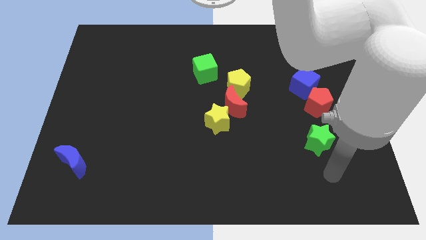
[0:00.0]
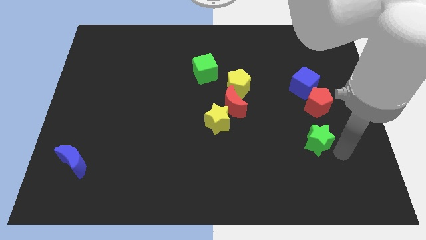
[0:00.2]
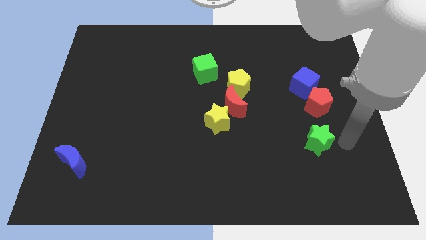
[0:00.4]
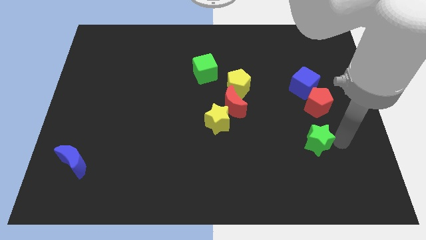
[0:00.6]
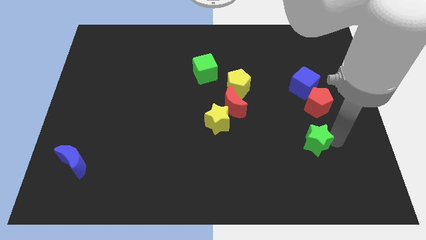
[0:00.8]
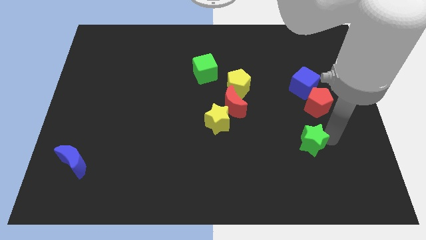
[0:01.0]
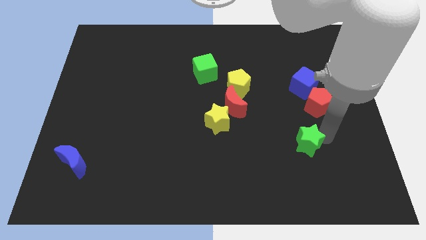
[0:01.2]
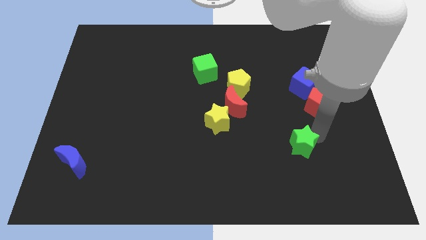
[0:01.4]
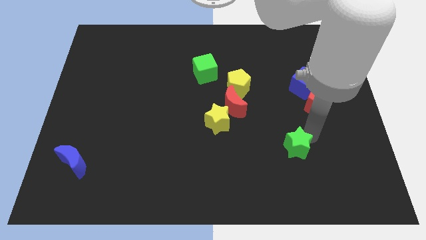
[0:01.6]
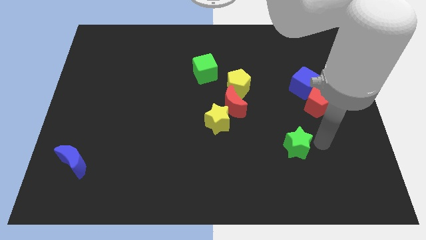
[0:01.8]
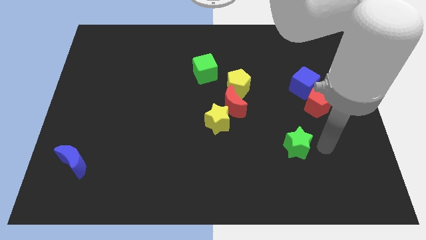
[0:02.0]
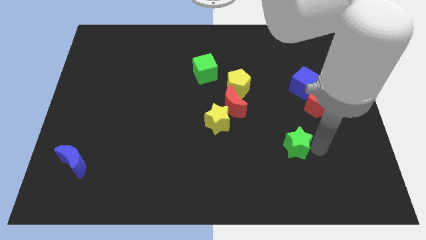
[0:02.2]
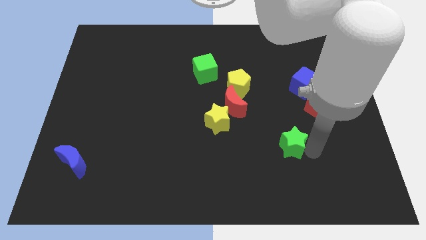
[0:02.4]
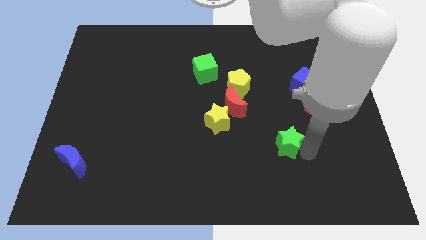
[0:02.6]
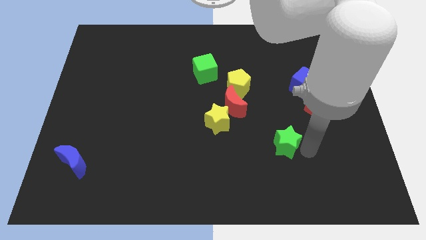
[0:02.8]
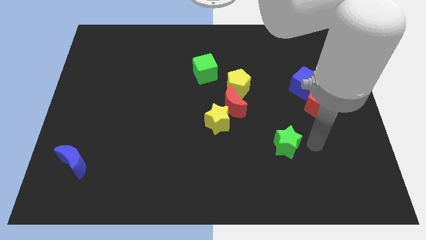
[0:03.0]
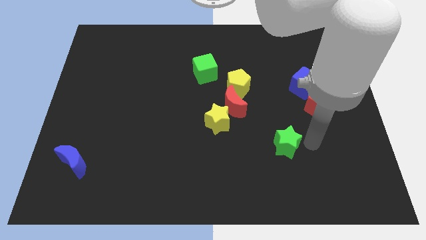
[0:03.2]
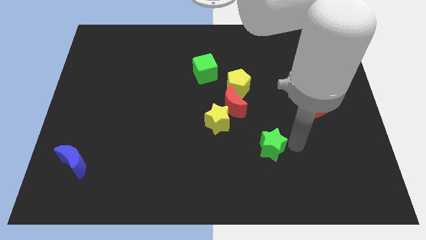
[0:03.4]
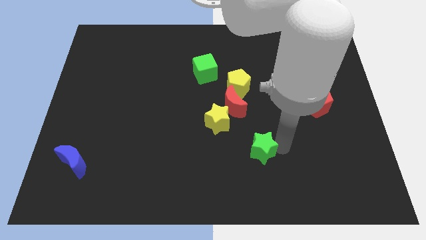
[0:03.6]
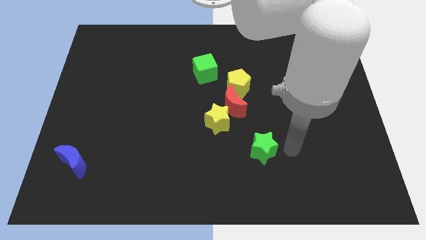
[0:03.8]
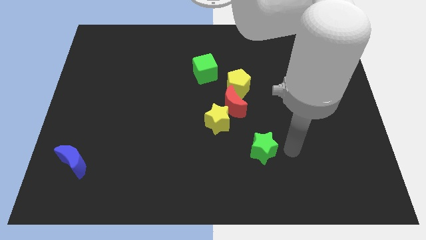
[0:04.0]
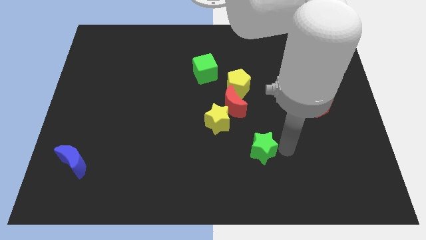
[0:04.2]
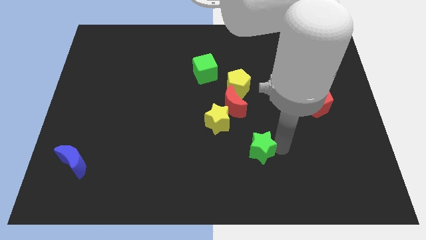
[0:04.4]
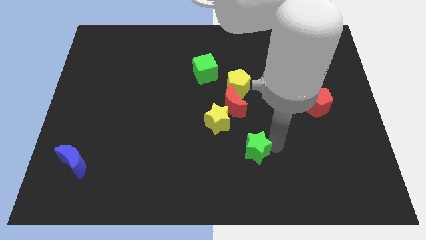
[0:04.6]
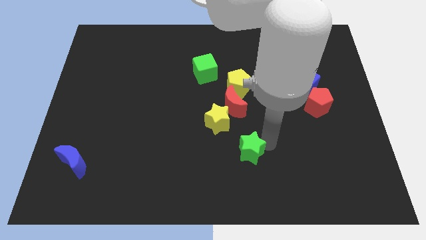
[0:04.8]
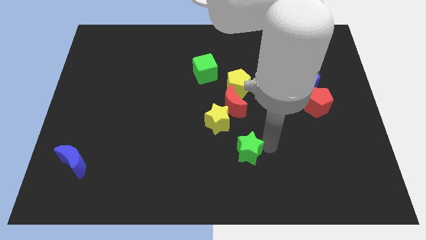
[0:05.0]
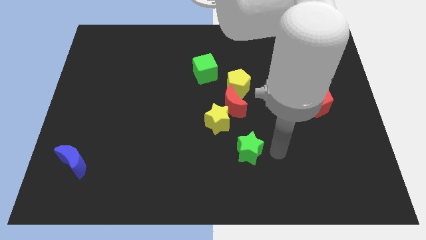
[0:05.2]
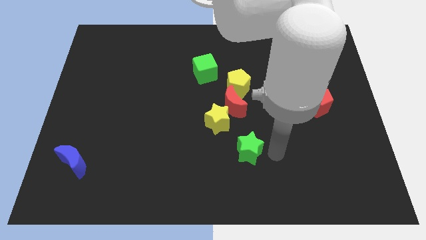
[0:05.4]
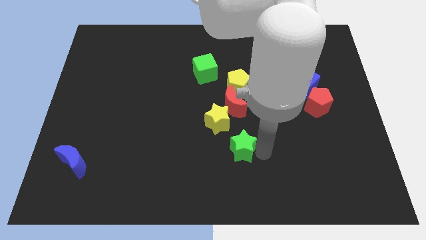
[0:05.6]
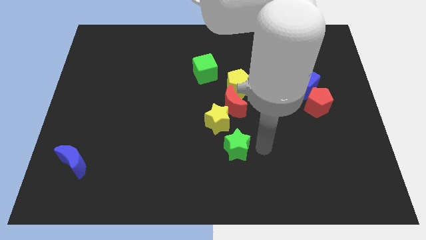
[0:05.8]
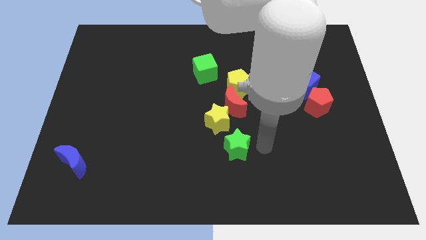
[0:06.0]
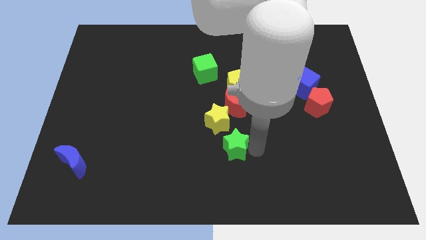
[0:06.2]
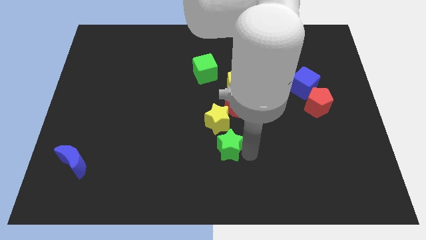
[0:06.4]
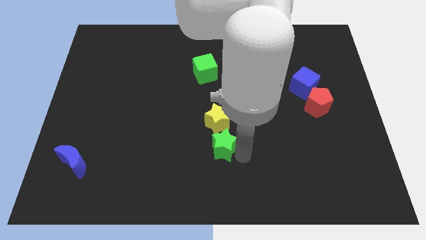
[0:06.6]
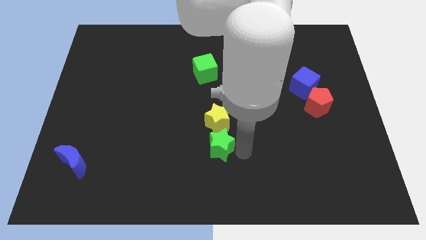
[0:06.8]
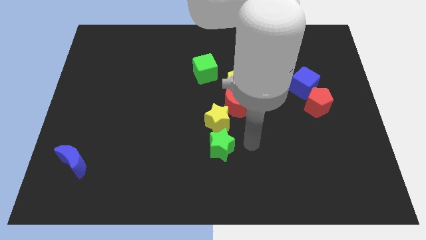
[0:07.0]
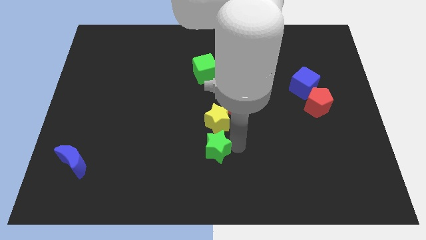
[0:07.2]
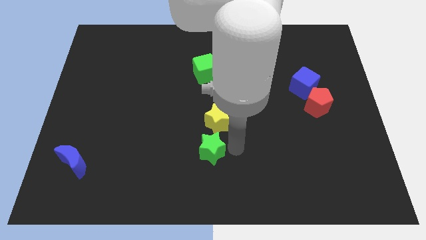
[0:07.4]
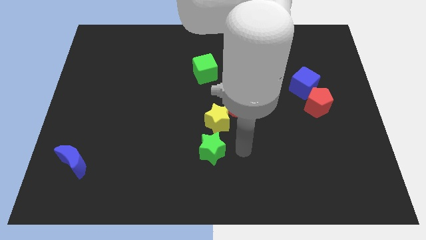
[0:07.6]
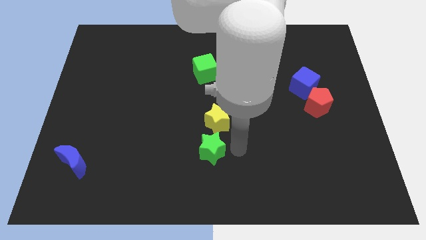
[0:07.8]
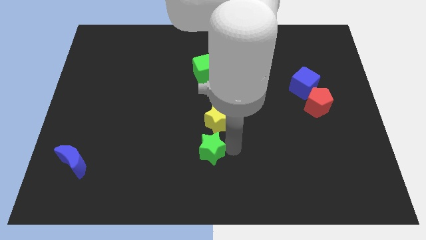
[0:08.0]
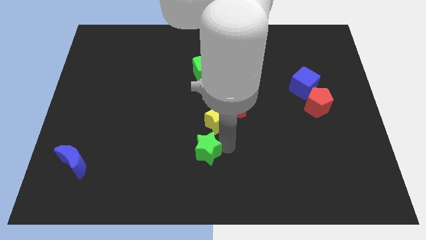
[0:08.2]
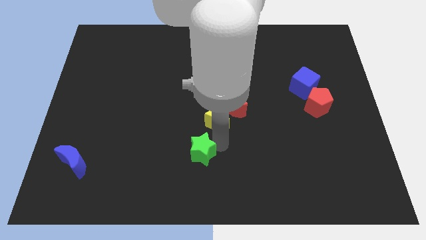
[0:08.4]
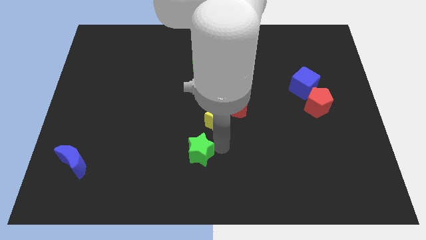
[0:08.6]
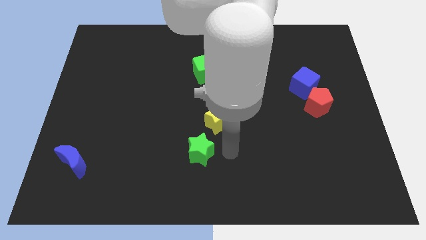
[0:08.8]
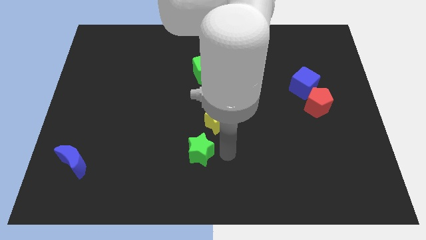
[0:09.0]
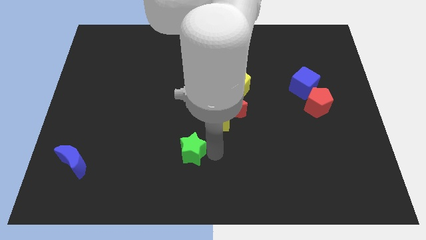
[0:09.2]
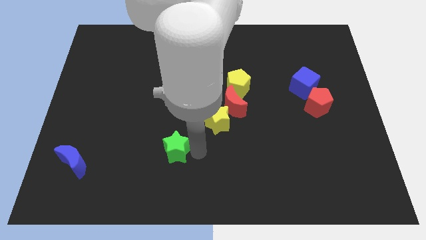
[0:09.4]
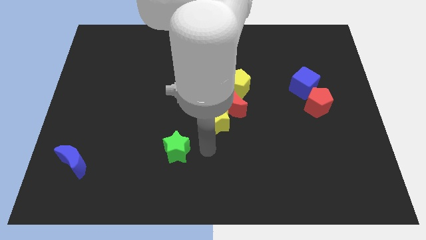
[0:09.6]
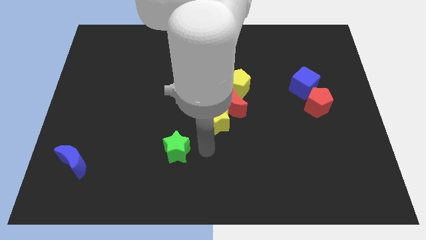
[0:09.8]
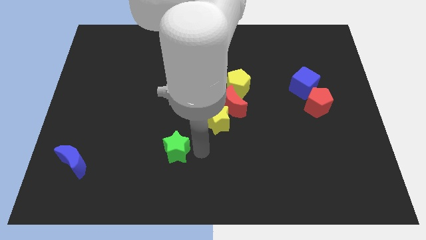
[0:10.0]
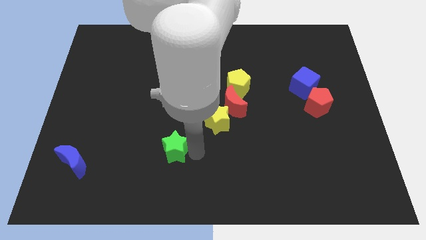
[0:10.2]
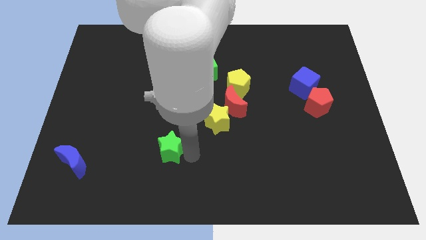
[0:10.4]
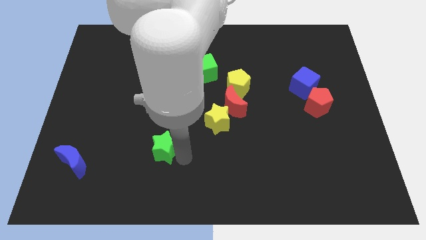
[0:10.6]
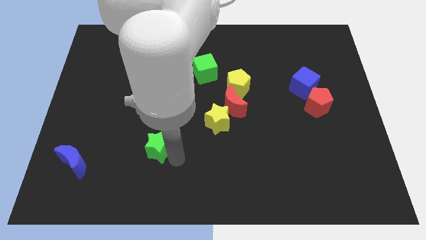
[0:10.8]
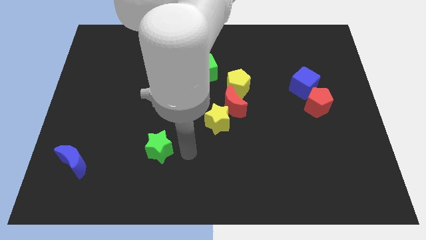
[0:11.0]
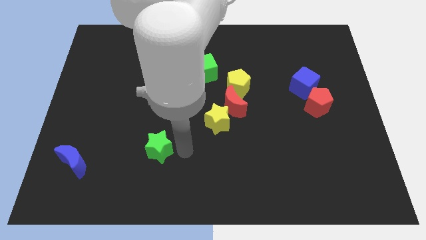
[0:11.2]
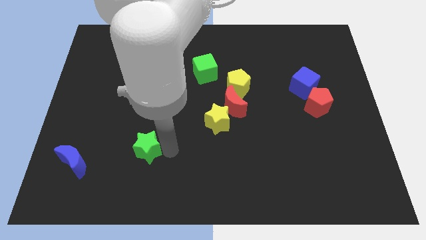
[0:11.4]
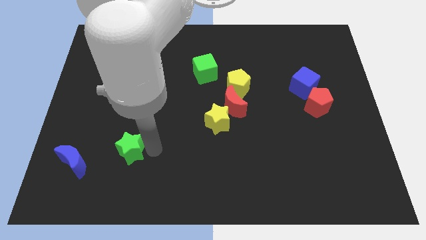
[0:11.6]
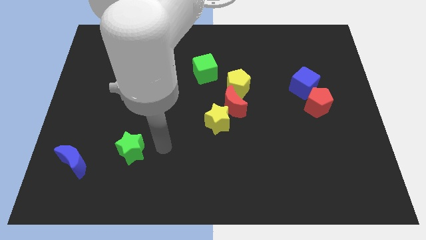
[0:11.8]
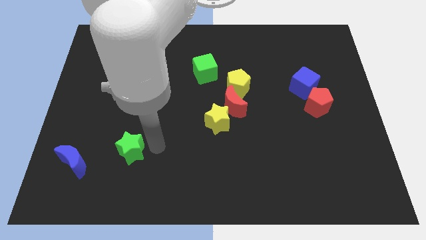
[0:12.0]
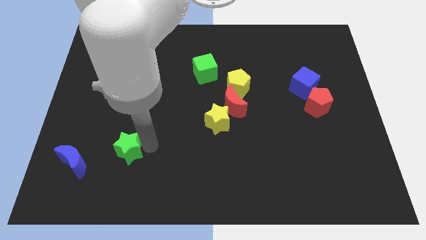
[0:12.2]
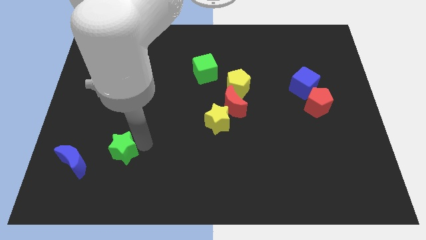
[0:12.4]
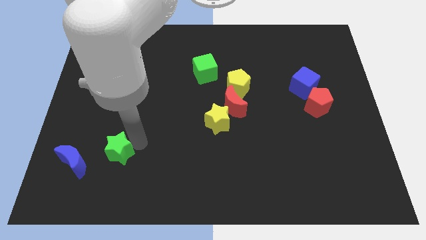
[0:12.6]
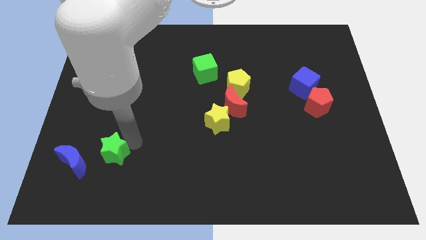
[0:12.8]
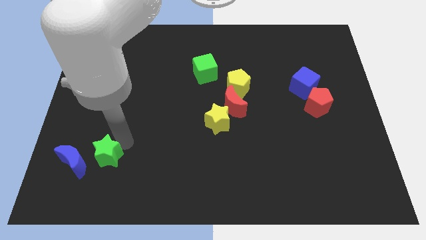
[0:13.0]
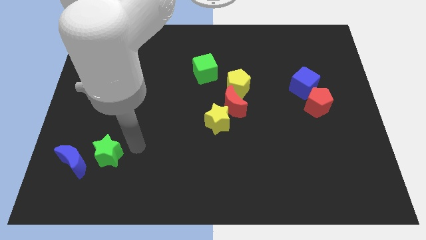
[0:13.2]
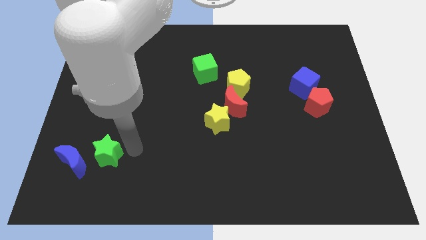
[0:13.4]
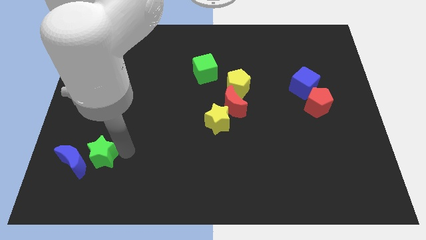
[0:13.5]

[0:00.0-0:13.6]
slide the green star to the blue moon
